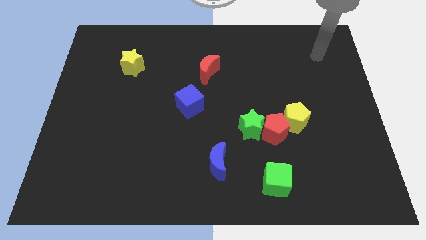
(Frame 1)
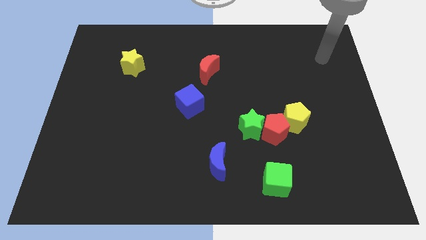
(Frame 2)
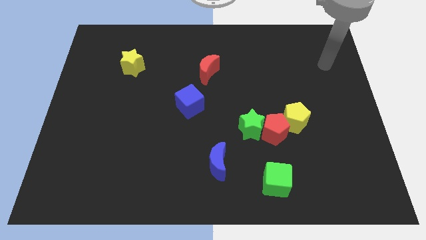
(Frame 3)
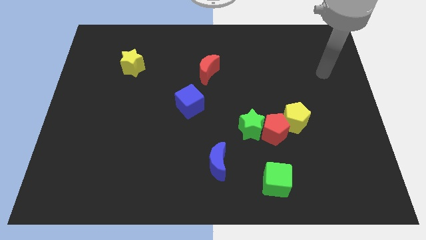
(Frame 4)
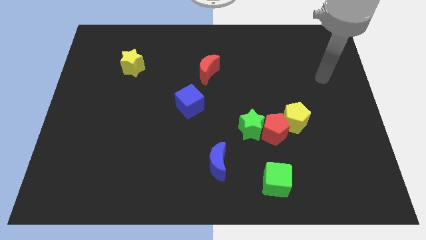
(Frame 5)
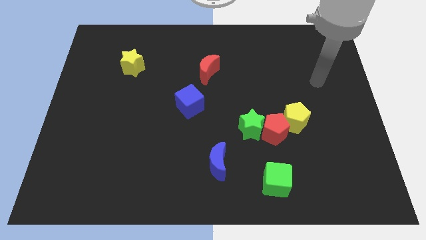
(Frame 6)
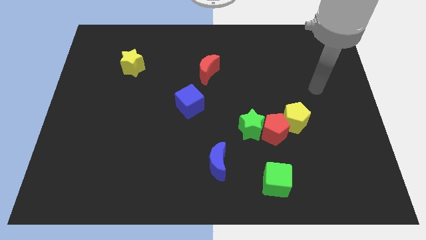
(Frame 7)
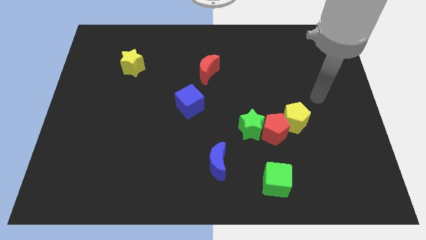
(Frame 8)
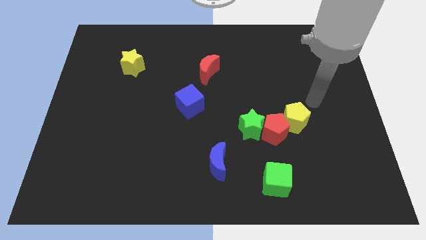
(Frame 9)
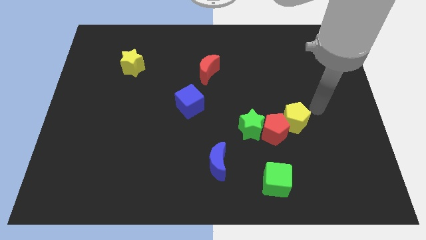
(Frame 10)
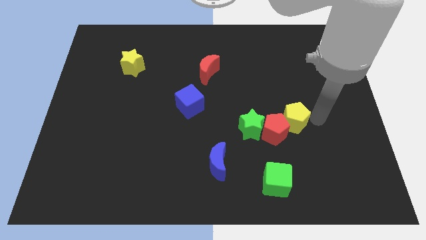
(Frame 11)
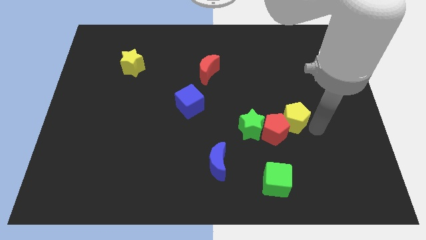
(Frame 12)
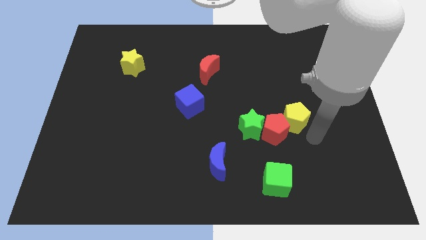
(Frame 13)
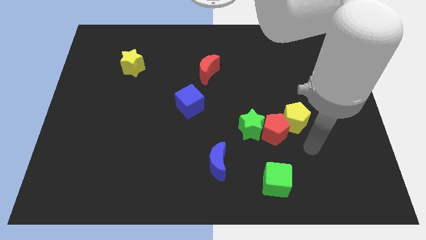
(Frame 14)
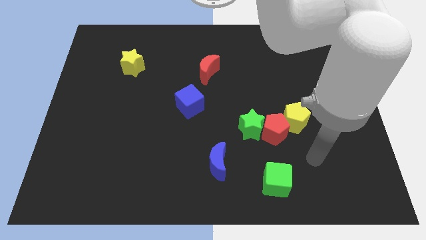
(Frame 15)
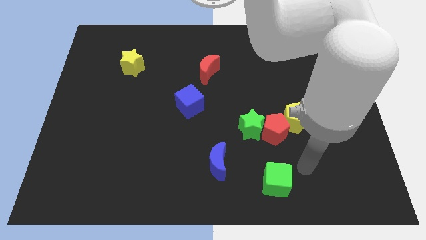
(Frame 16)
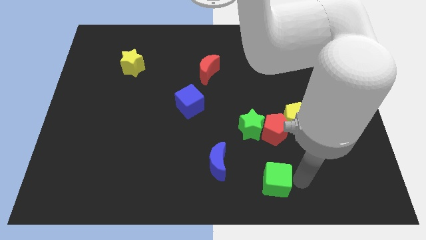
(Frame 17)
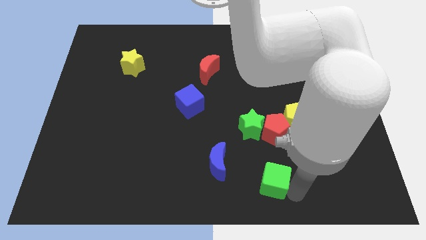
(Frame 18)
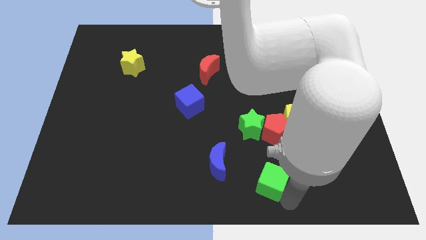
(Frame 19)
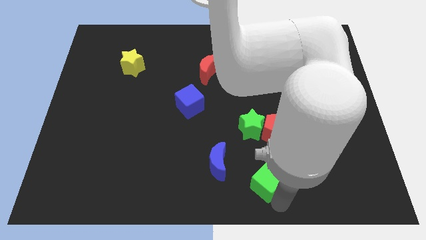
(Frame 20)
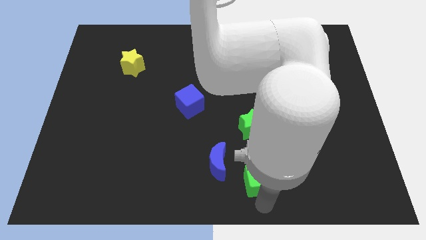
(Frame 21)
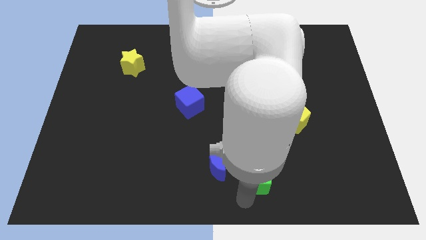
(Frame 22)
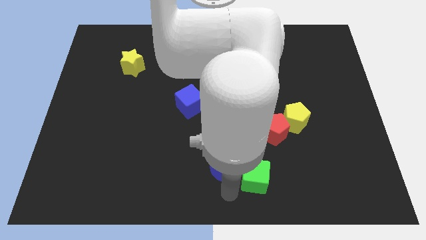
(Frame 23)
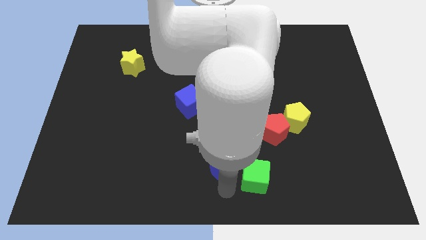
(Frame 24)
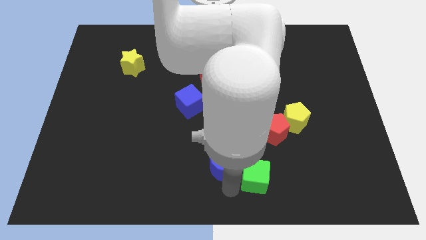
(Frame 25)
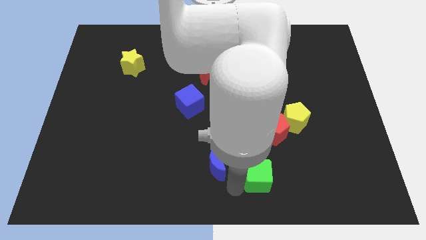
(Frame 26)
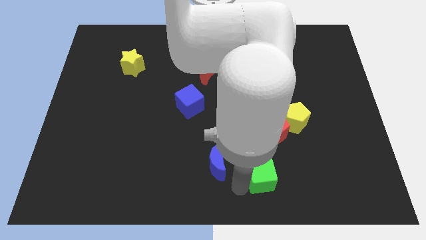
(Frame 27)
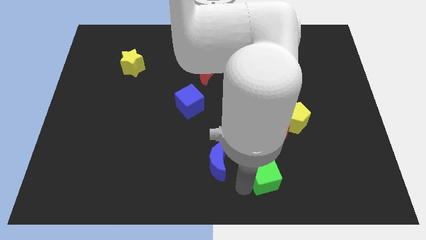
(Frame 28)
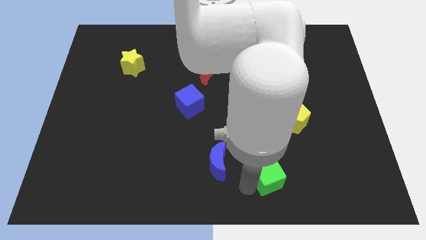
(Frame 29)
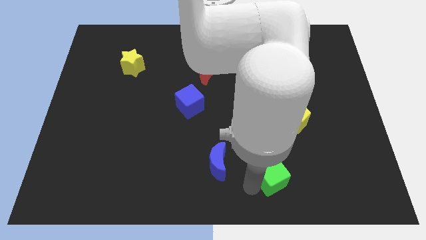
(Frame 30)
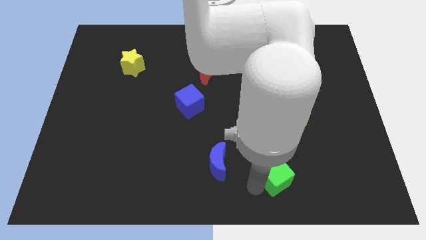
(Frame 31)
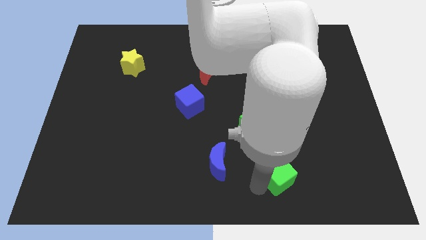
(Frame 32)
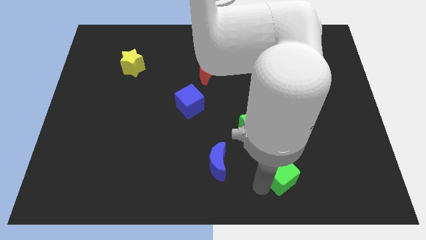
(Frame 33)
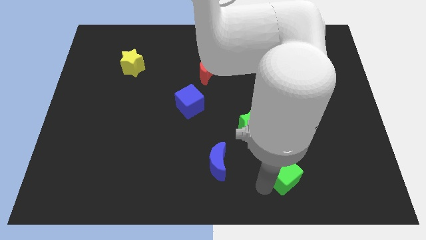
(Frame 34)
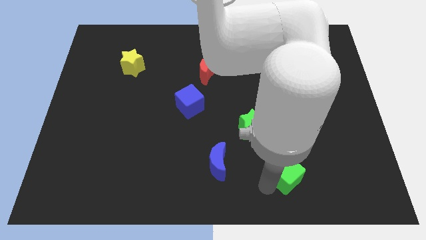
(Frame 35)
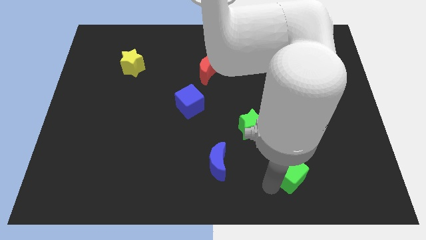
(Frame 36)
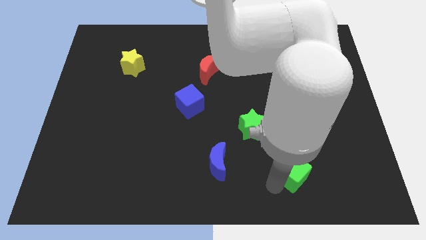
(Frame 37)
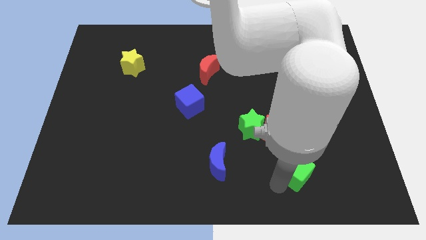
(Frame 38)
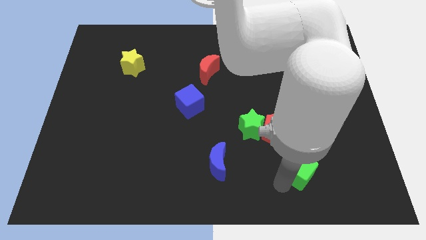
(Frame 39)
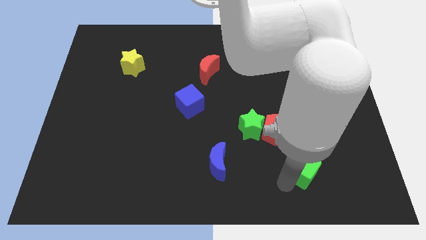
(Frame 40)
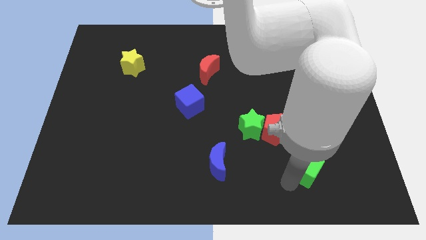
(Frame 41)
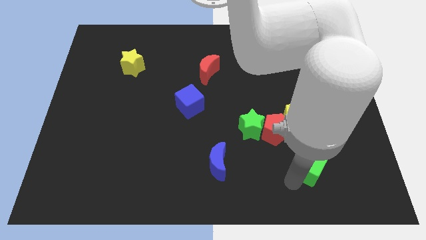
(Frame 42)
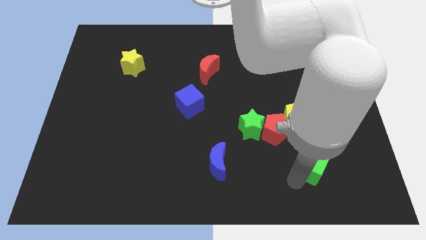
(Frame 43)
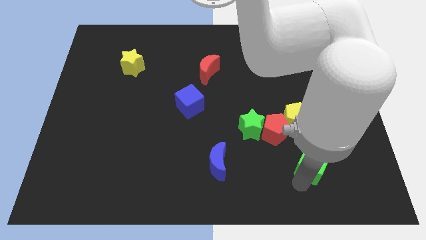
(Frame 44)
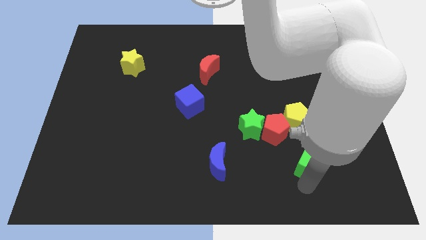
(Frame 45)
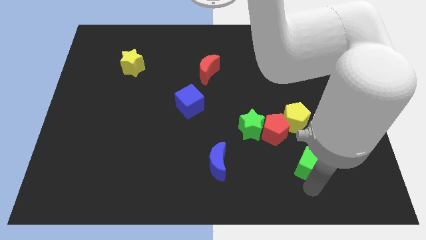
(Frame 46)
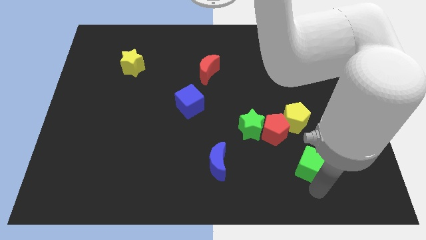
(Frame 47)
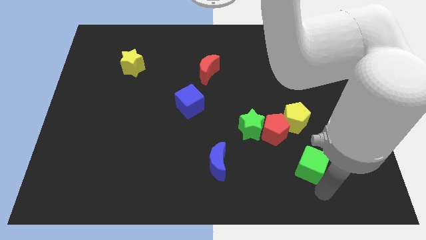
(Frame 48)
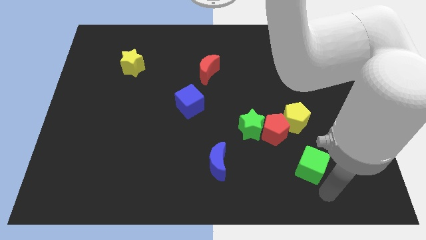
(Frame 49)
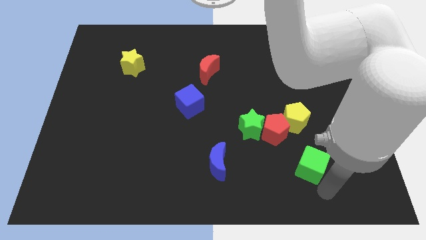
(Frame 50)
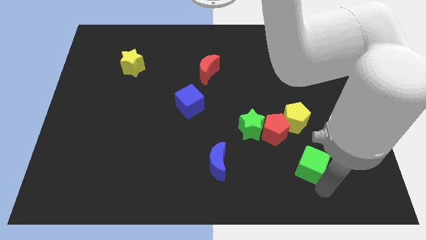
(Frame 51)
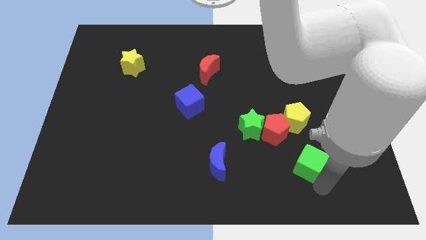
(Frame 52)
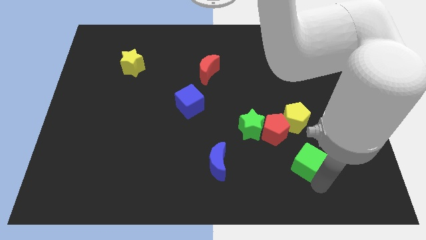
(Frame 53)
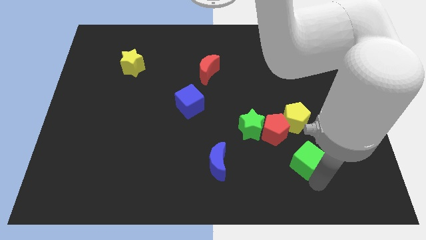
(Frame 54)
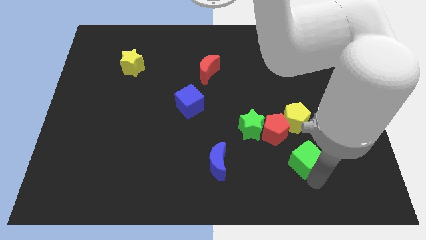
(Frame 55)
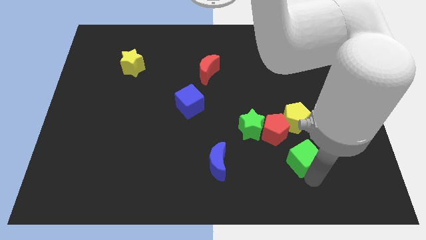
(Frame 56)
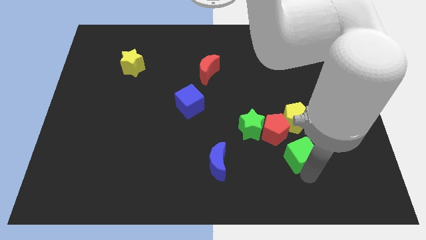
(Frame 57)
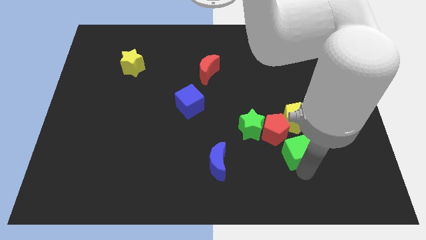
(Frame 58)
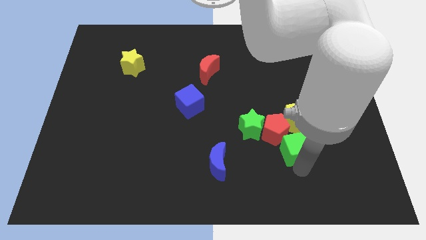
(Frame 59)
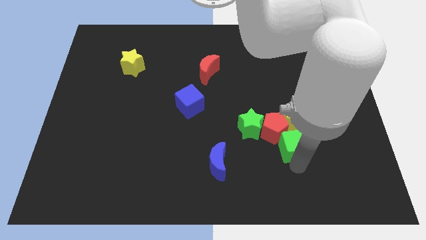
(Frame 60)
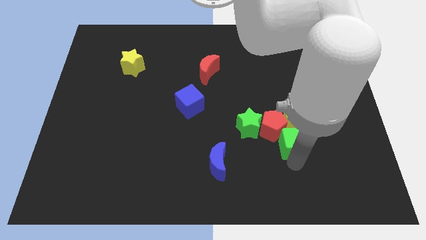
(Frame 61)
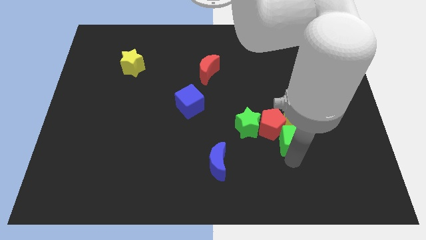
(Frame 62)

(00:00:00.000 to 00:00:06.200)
put the green cube close to the yellow pentagon

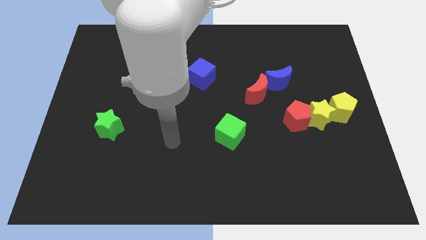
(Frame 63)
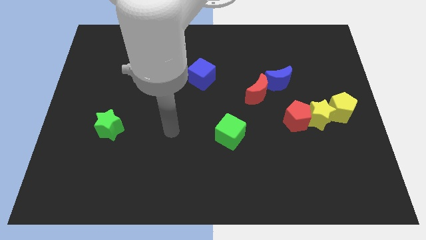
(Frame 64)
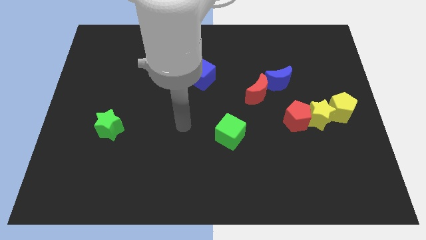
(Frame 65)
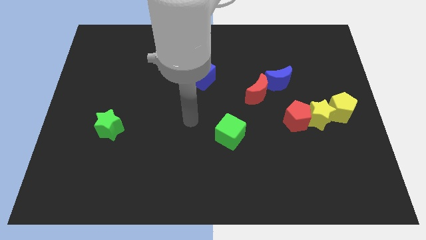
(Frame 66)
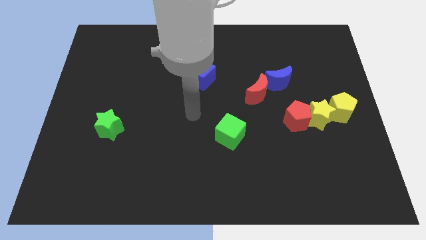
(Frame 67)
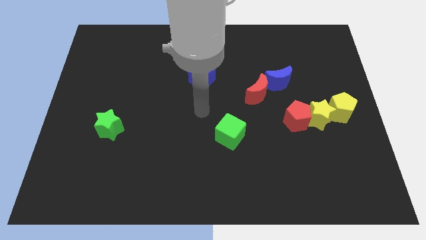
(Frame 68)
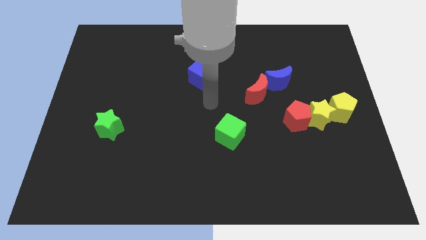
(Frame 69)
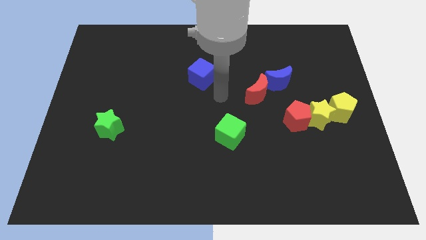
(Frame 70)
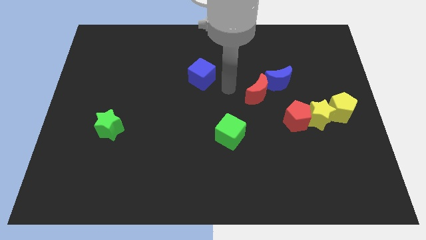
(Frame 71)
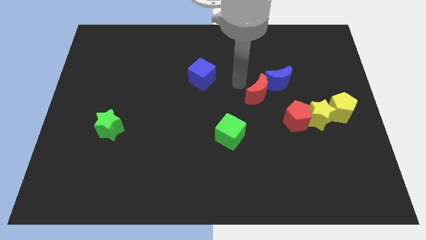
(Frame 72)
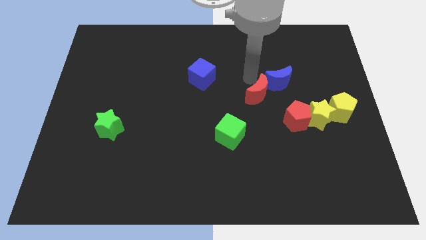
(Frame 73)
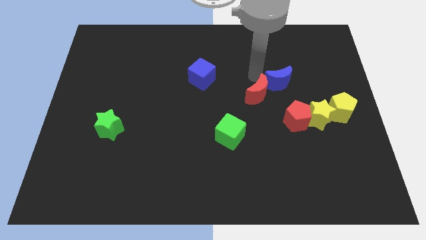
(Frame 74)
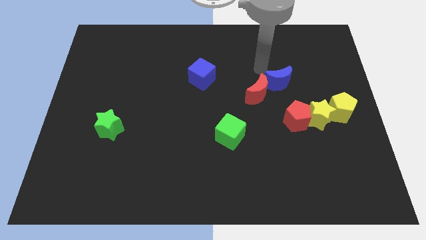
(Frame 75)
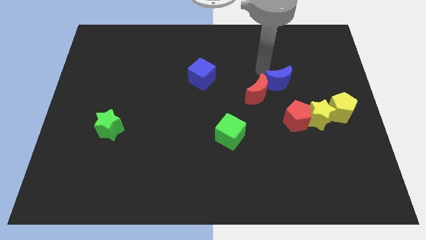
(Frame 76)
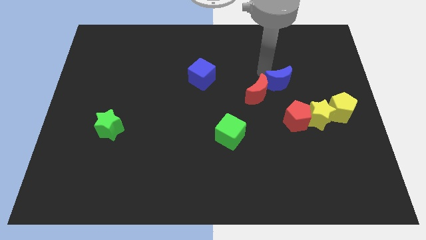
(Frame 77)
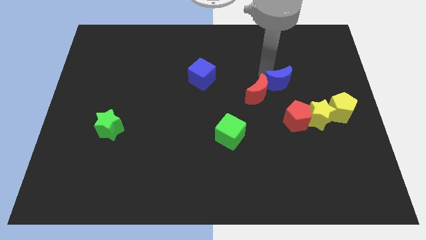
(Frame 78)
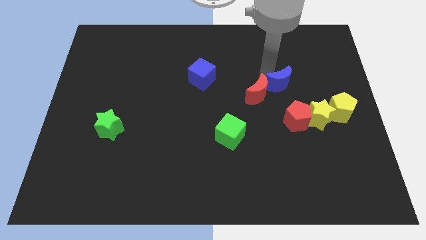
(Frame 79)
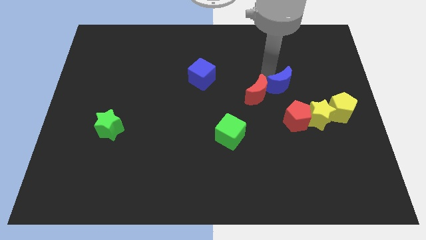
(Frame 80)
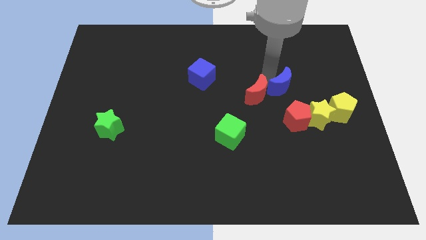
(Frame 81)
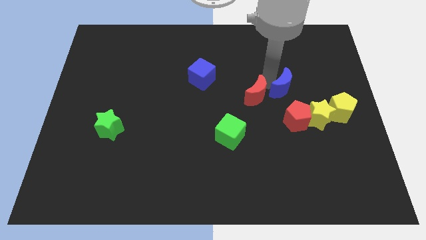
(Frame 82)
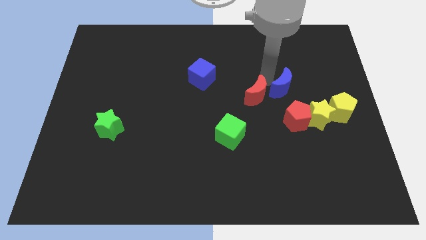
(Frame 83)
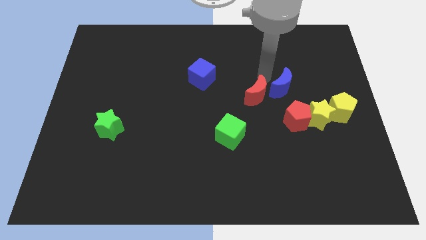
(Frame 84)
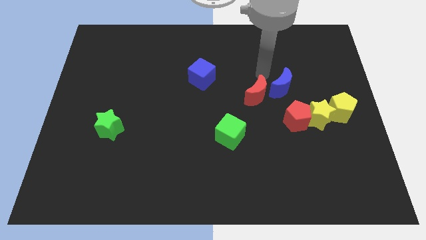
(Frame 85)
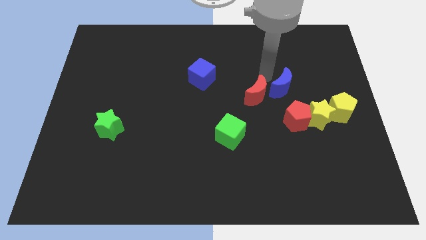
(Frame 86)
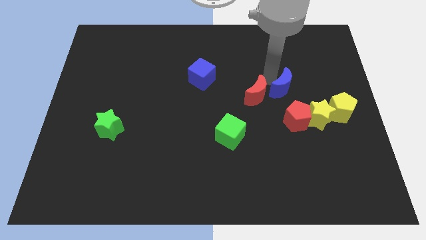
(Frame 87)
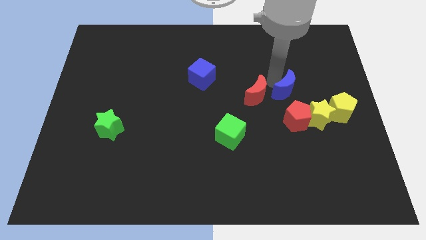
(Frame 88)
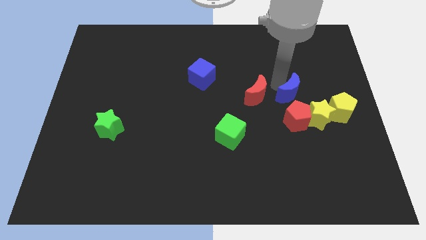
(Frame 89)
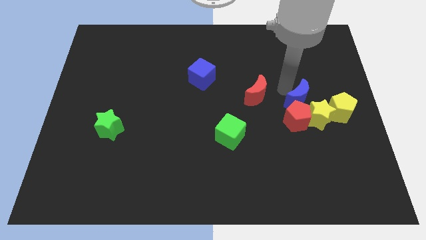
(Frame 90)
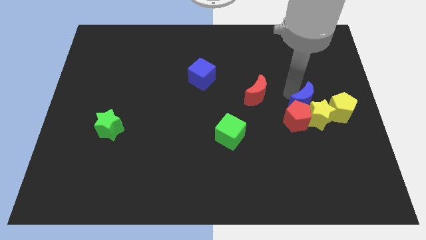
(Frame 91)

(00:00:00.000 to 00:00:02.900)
put the blue moon next to the yellow star
